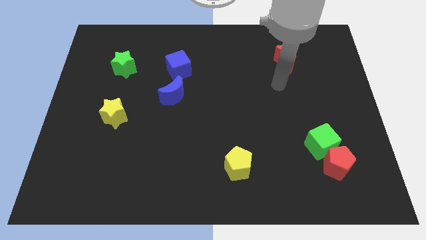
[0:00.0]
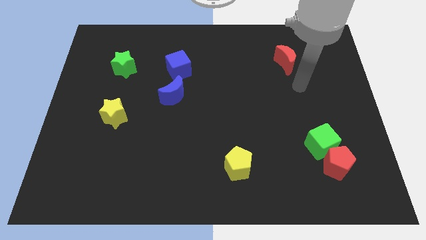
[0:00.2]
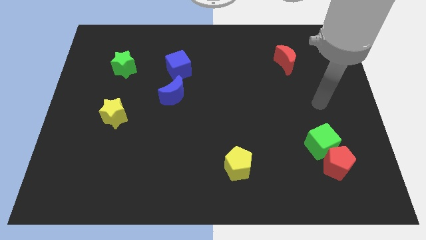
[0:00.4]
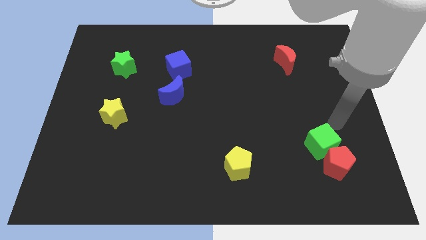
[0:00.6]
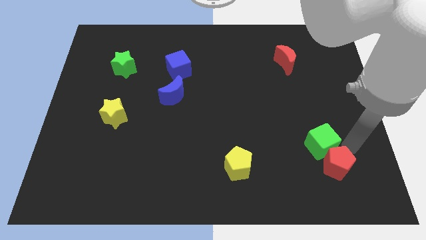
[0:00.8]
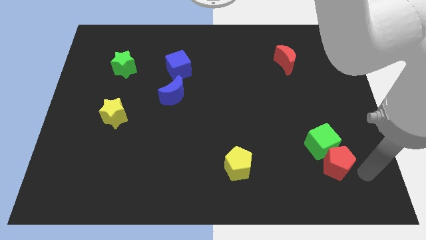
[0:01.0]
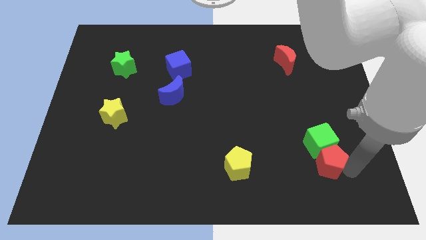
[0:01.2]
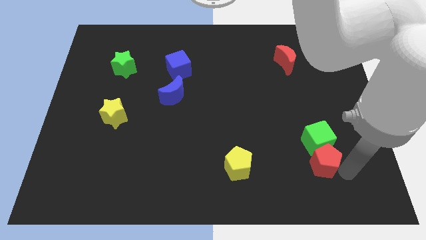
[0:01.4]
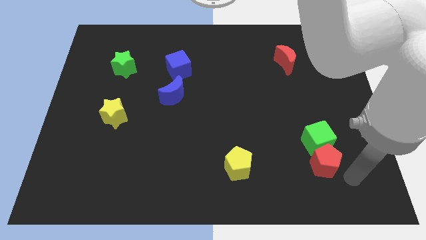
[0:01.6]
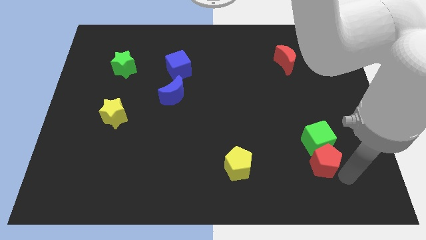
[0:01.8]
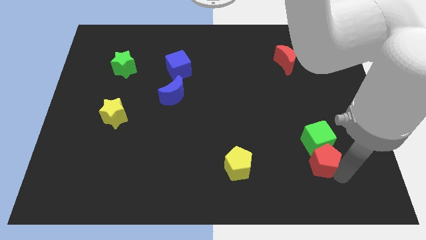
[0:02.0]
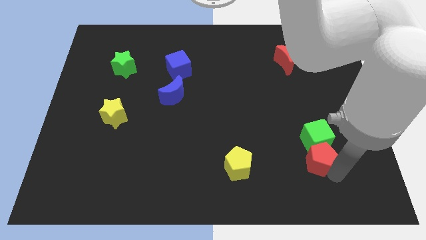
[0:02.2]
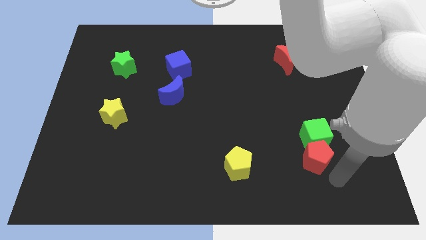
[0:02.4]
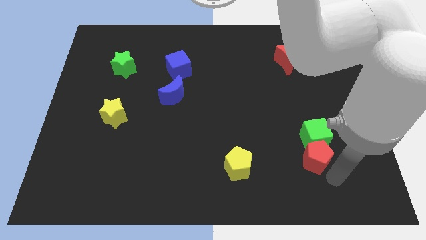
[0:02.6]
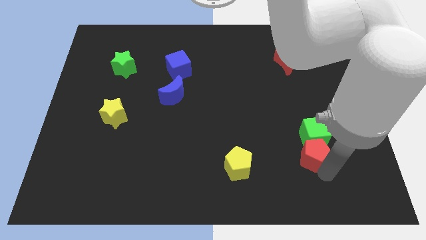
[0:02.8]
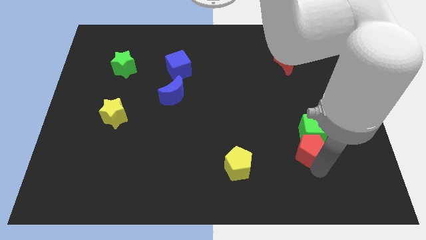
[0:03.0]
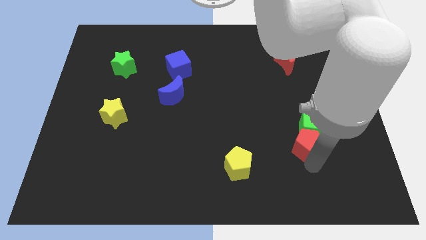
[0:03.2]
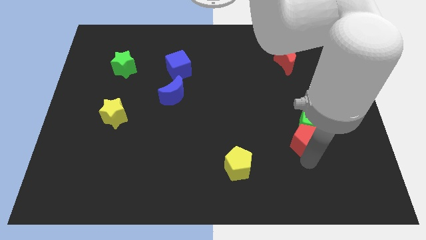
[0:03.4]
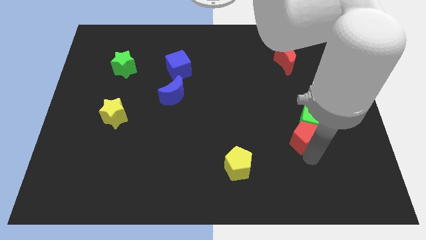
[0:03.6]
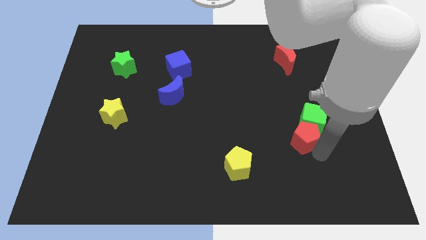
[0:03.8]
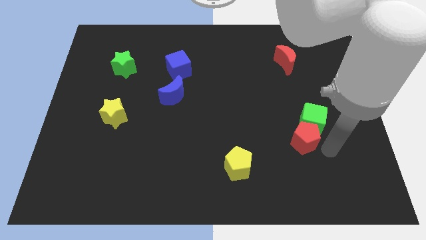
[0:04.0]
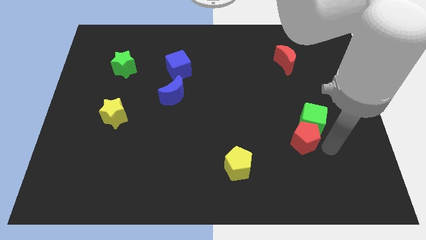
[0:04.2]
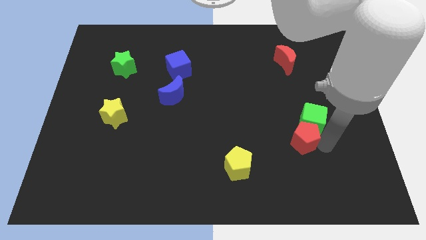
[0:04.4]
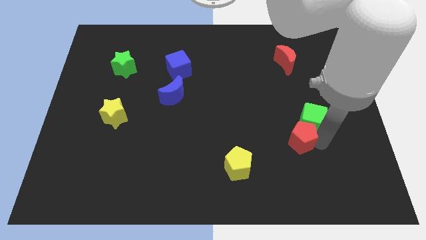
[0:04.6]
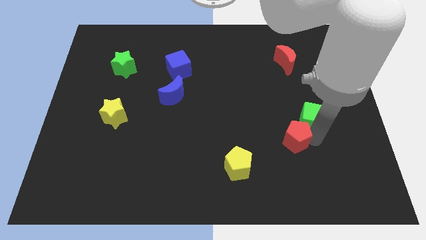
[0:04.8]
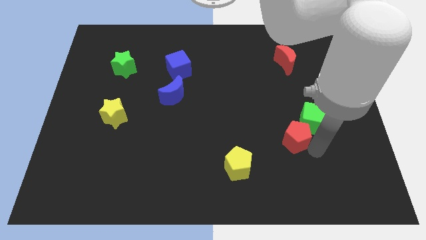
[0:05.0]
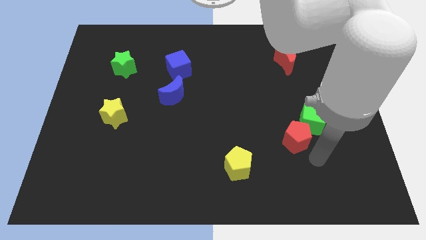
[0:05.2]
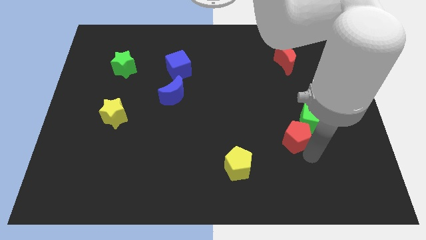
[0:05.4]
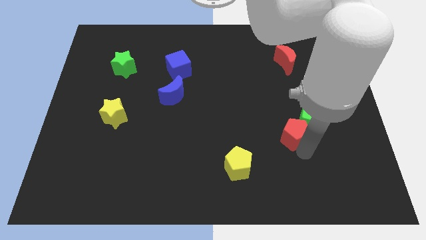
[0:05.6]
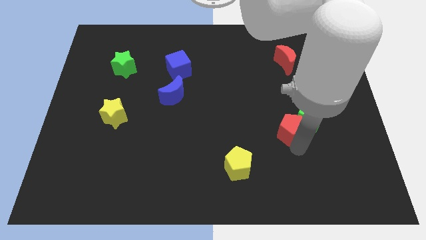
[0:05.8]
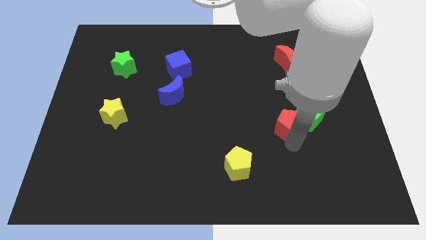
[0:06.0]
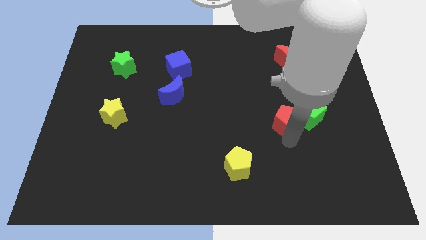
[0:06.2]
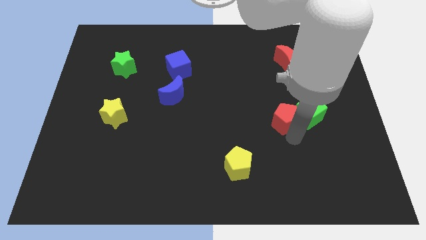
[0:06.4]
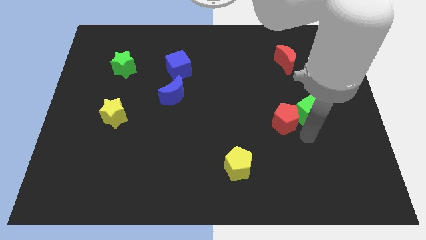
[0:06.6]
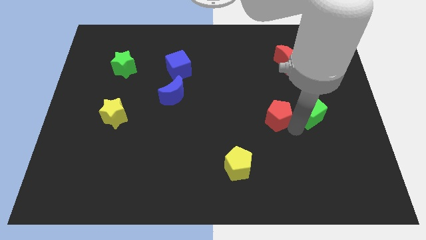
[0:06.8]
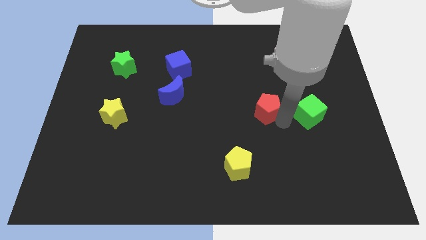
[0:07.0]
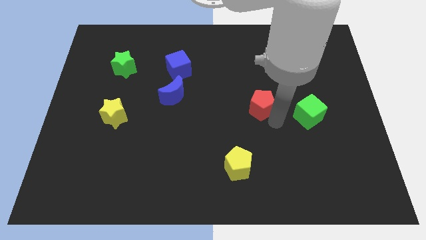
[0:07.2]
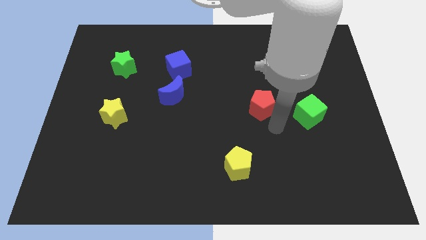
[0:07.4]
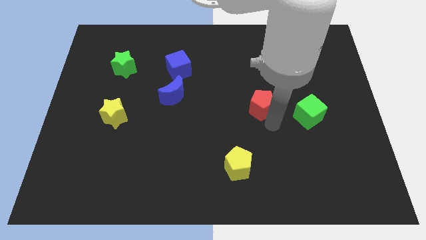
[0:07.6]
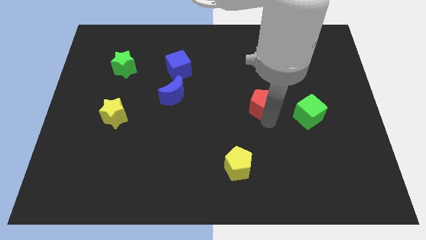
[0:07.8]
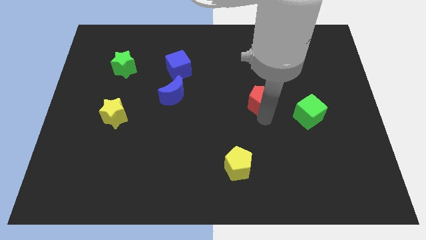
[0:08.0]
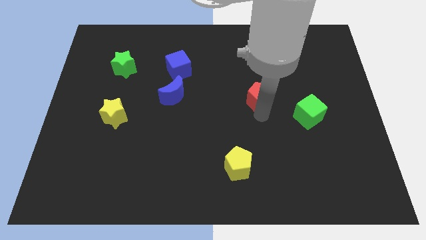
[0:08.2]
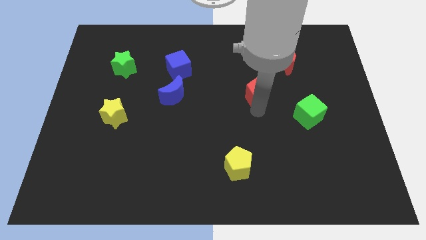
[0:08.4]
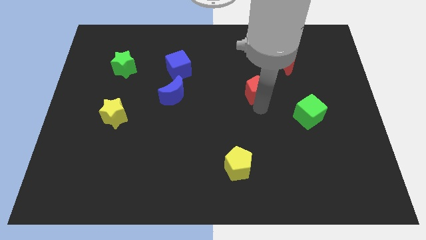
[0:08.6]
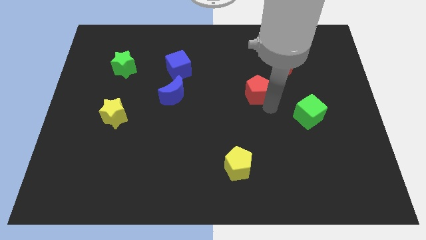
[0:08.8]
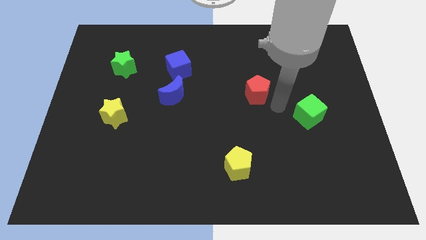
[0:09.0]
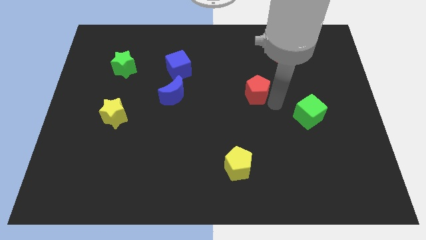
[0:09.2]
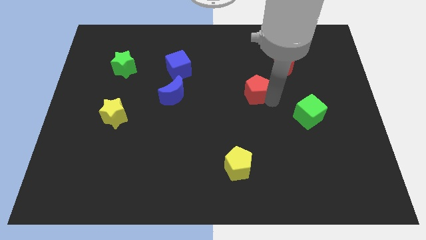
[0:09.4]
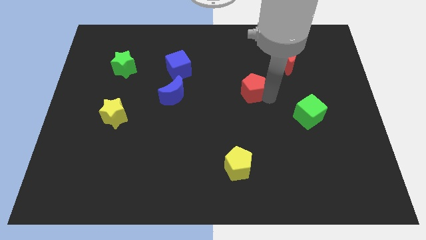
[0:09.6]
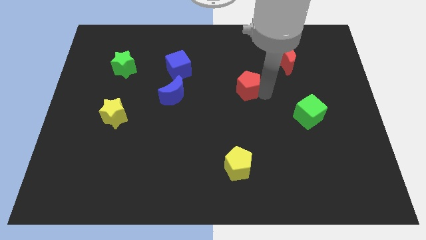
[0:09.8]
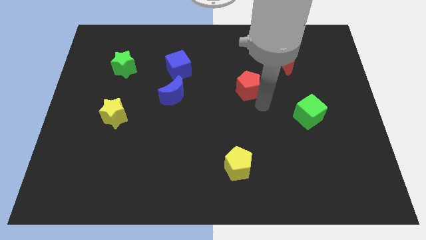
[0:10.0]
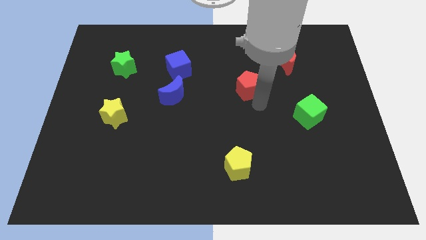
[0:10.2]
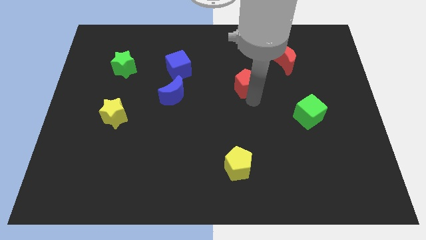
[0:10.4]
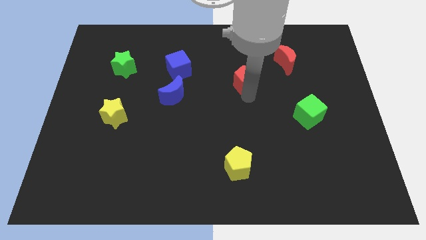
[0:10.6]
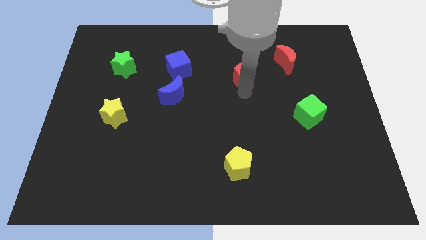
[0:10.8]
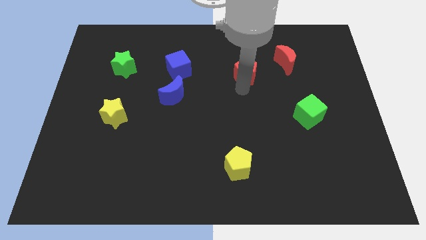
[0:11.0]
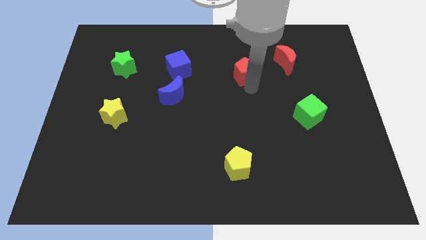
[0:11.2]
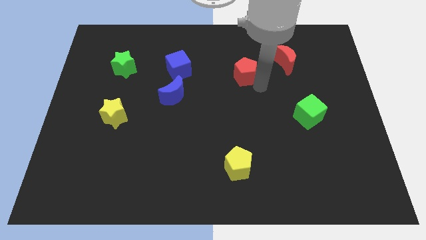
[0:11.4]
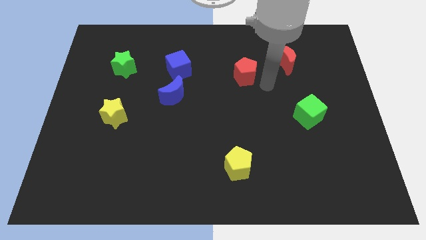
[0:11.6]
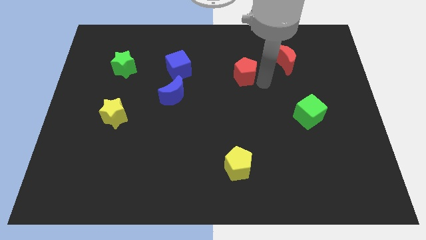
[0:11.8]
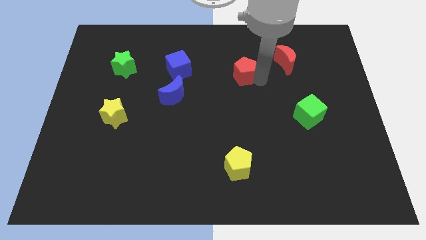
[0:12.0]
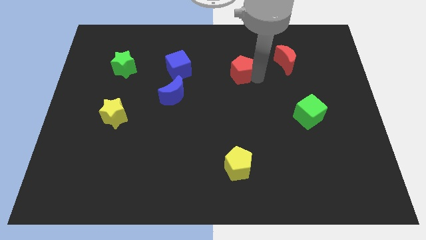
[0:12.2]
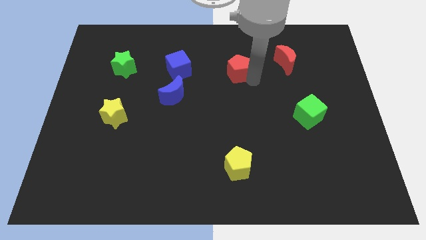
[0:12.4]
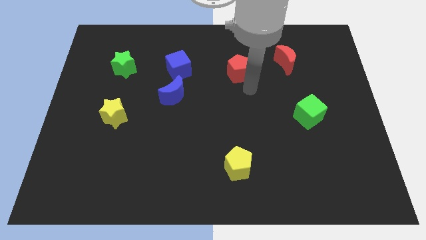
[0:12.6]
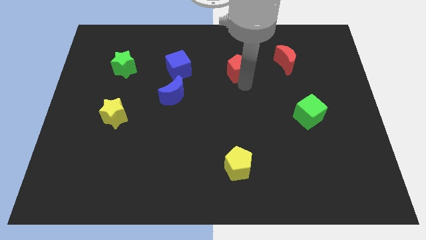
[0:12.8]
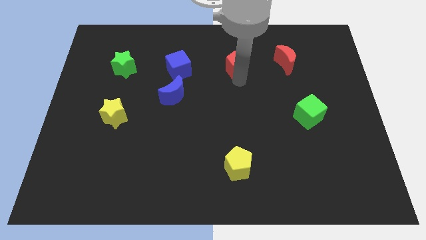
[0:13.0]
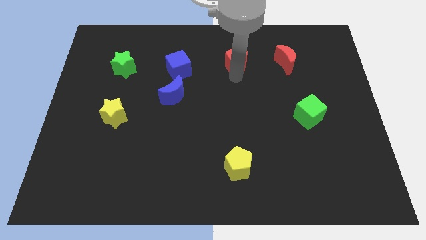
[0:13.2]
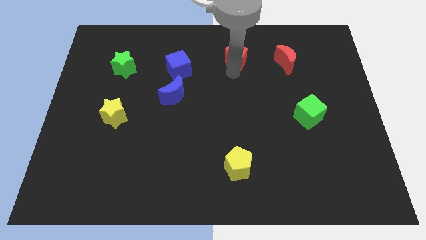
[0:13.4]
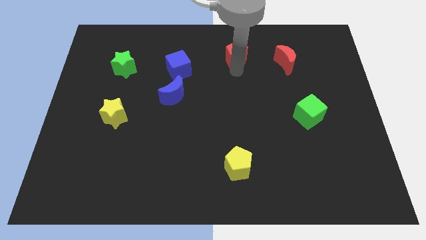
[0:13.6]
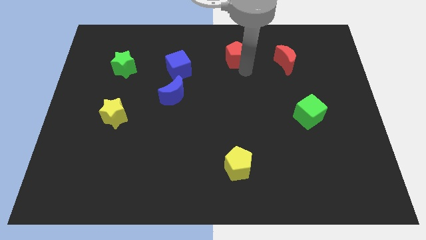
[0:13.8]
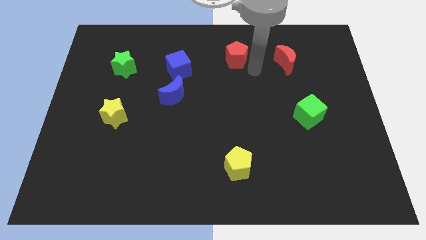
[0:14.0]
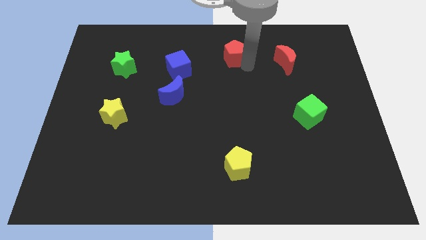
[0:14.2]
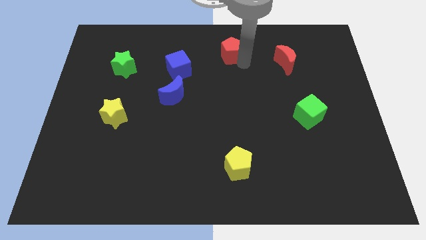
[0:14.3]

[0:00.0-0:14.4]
push the red pentagon to the top side
